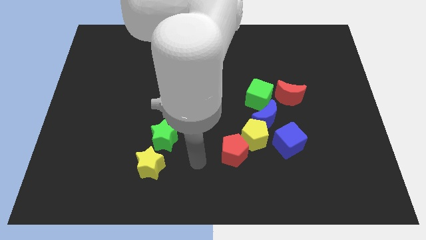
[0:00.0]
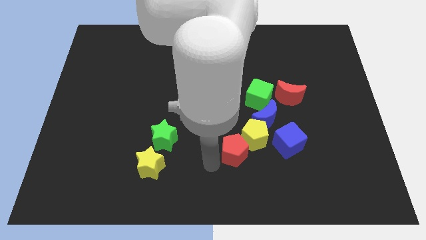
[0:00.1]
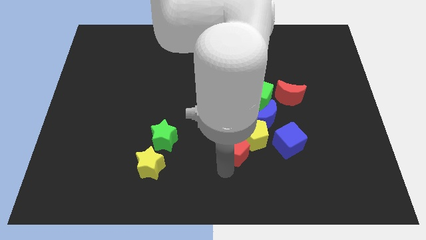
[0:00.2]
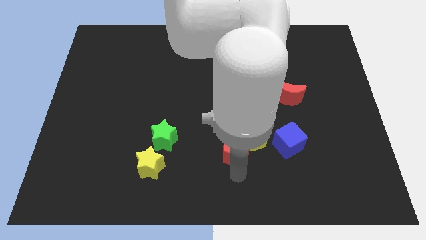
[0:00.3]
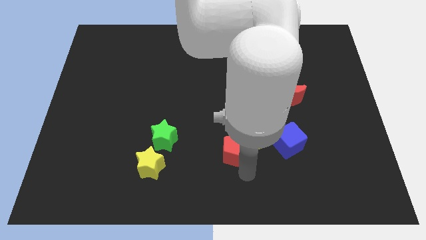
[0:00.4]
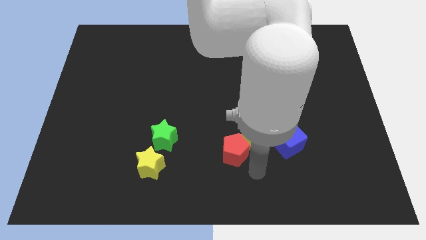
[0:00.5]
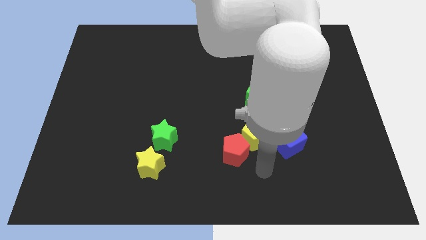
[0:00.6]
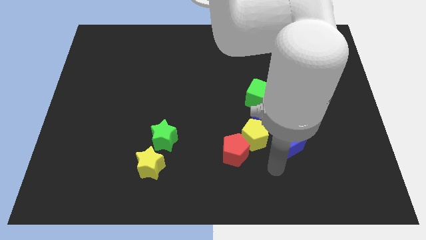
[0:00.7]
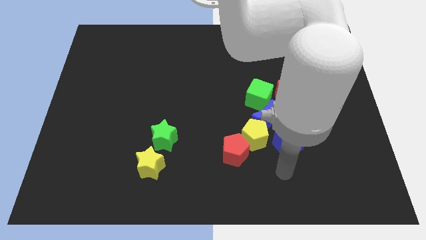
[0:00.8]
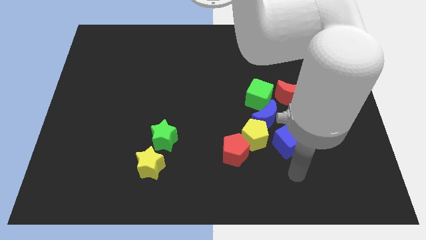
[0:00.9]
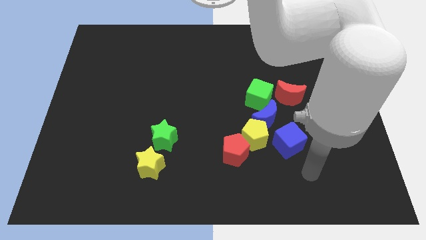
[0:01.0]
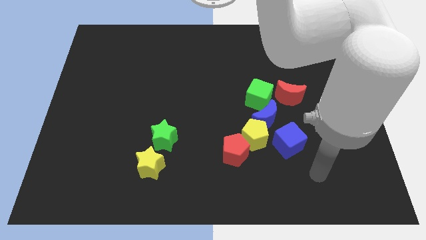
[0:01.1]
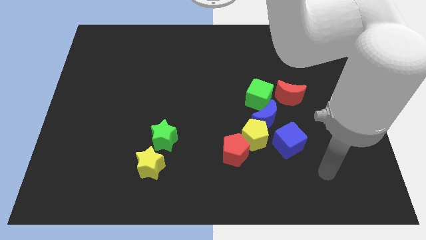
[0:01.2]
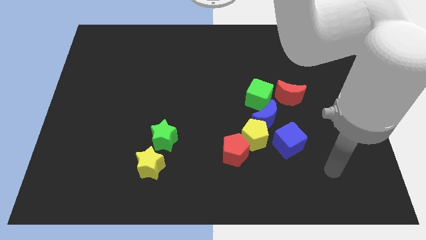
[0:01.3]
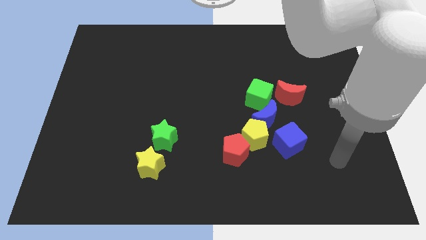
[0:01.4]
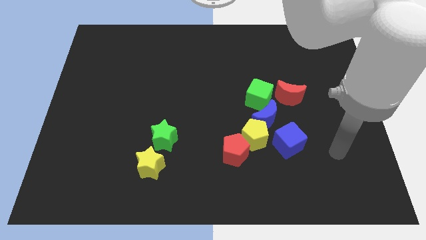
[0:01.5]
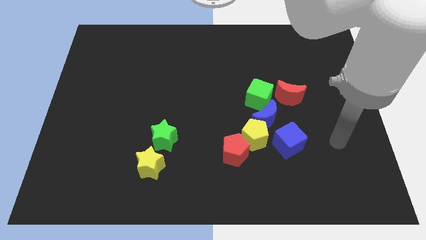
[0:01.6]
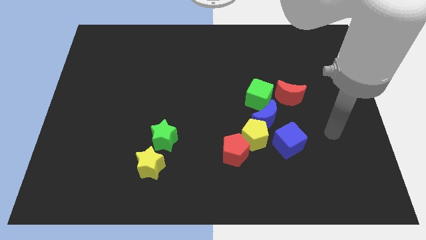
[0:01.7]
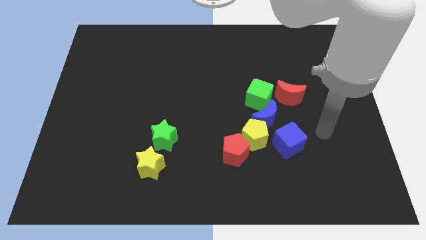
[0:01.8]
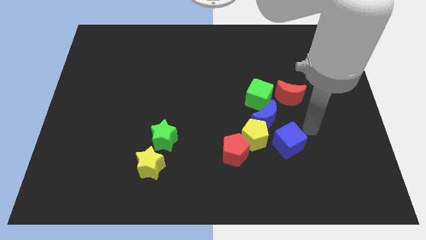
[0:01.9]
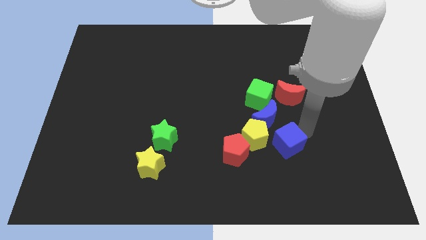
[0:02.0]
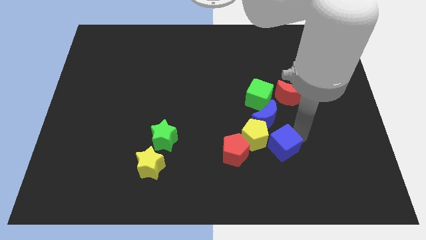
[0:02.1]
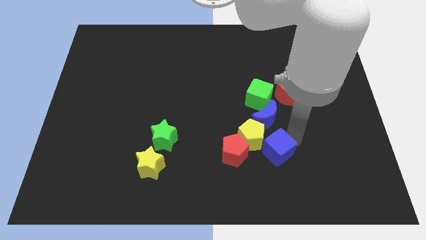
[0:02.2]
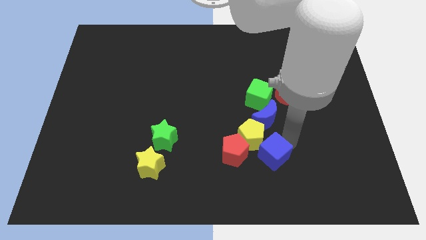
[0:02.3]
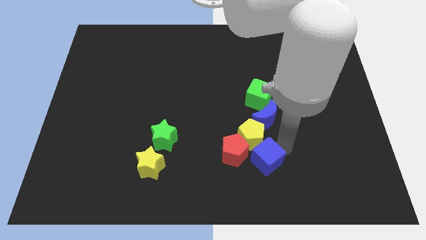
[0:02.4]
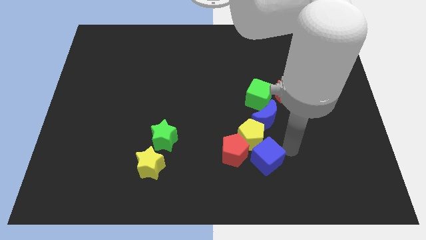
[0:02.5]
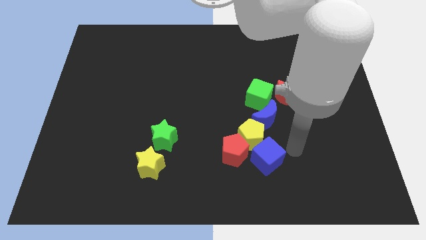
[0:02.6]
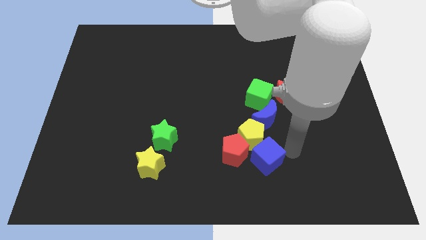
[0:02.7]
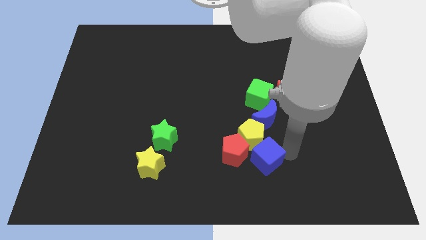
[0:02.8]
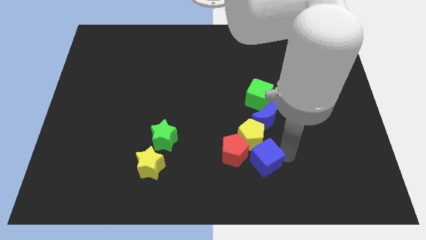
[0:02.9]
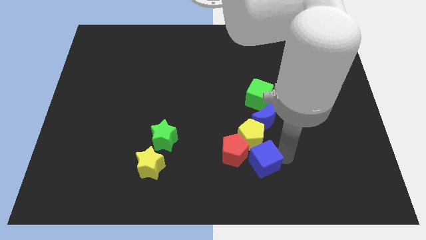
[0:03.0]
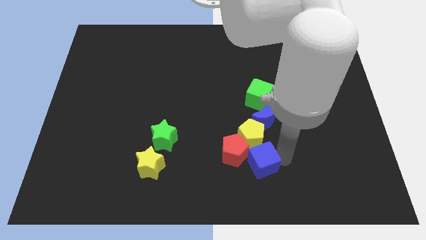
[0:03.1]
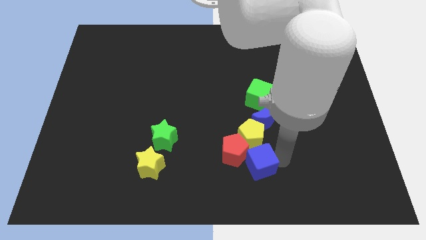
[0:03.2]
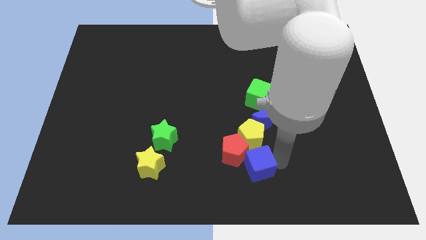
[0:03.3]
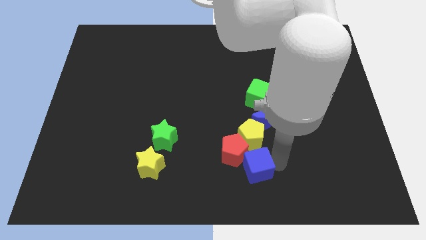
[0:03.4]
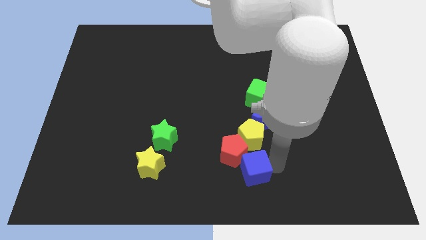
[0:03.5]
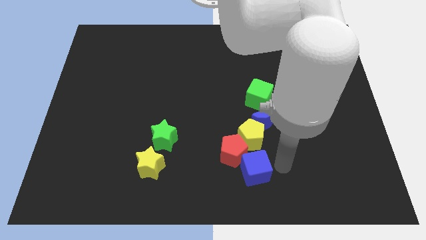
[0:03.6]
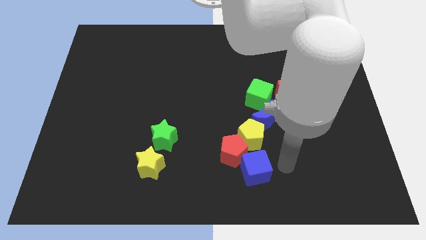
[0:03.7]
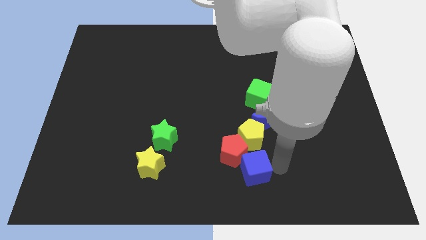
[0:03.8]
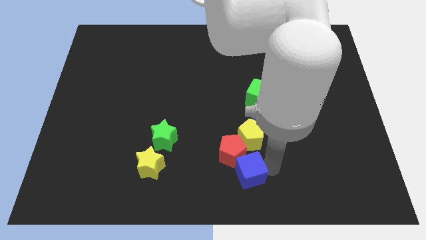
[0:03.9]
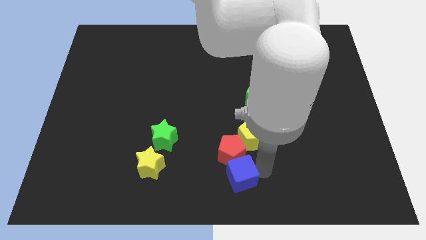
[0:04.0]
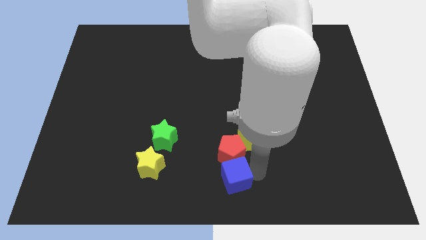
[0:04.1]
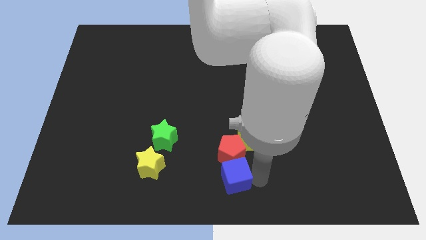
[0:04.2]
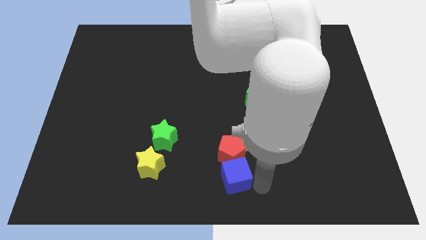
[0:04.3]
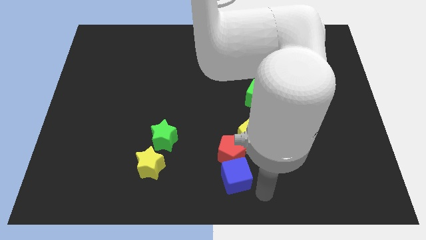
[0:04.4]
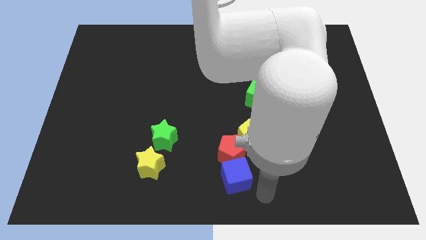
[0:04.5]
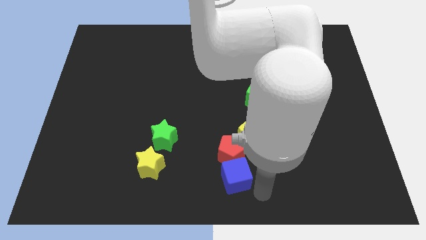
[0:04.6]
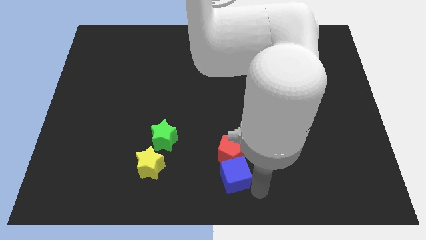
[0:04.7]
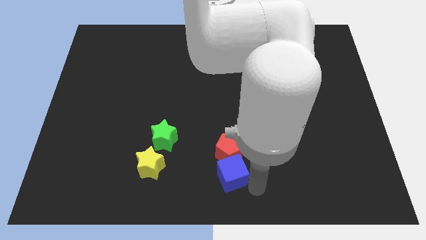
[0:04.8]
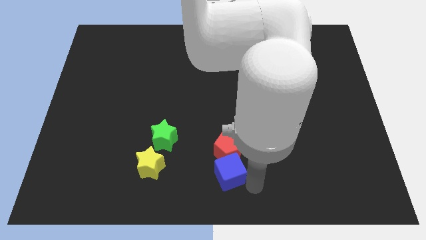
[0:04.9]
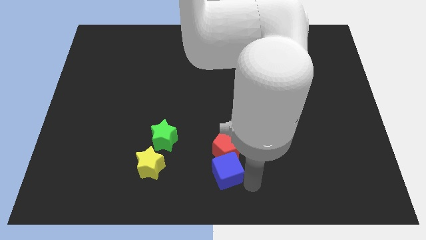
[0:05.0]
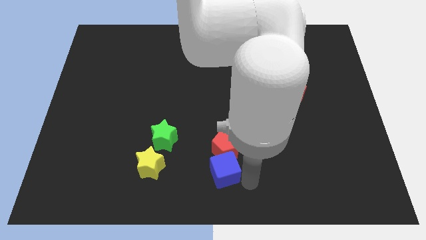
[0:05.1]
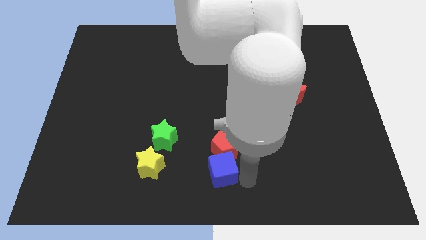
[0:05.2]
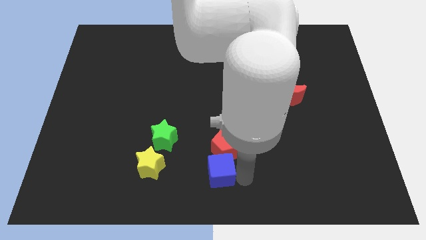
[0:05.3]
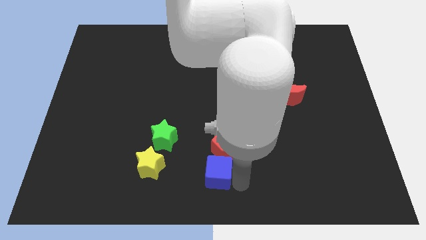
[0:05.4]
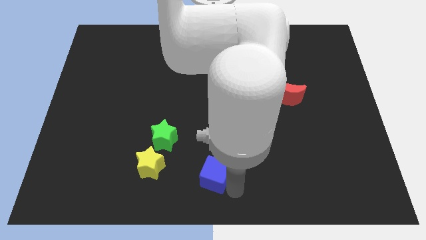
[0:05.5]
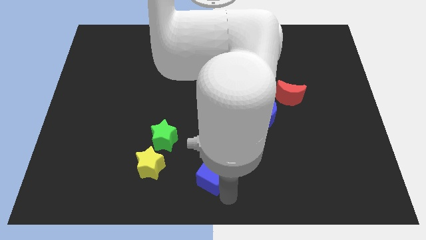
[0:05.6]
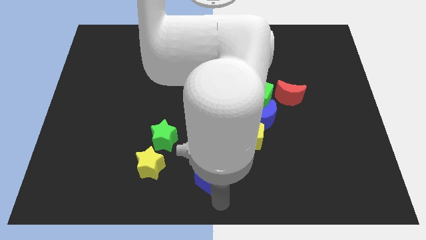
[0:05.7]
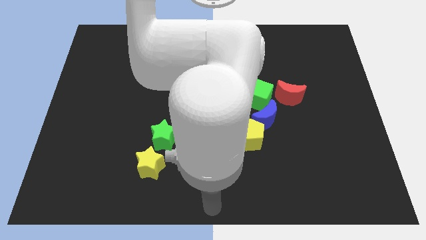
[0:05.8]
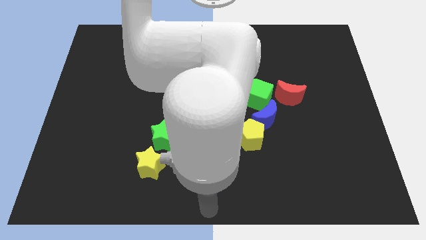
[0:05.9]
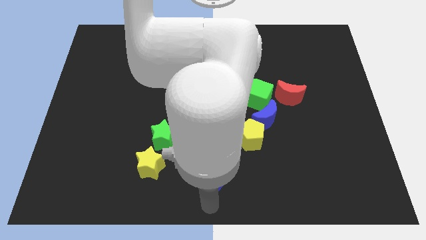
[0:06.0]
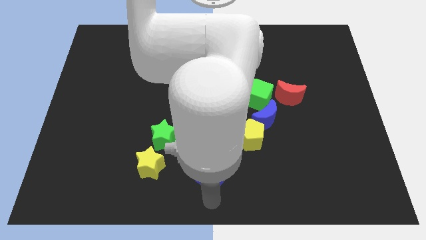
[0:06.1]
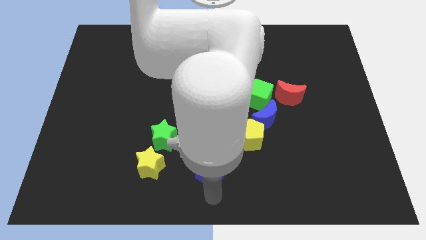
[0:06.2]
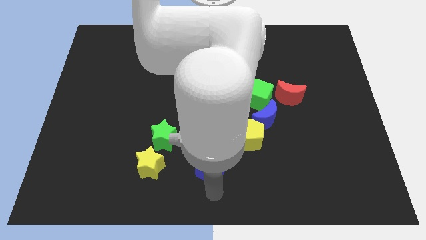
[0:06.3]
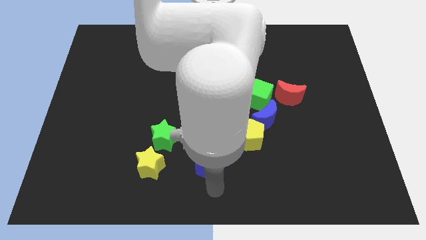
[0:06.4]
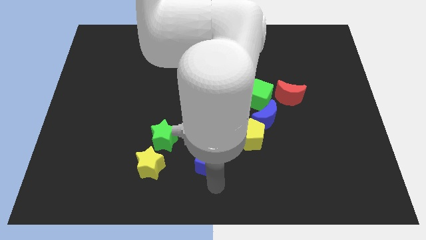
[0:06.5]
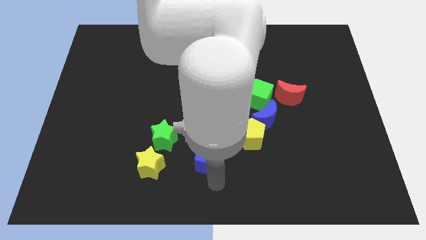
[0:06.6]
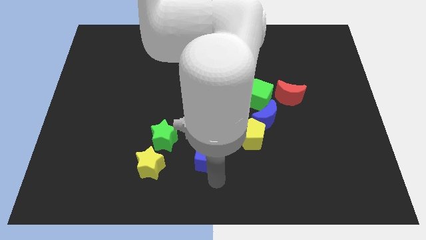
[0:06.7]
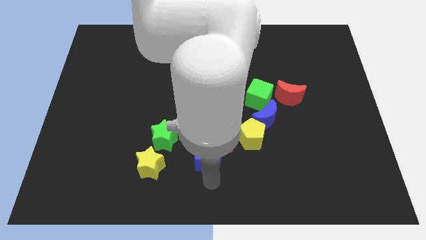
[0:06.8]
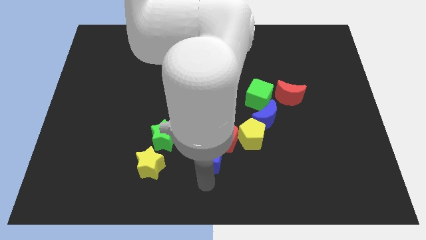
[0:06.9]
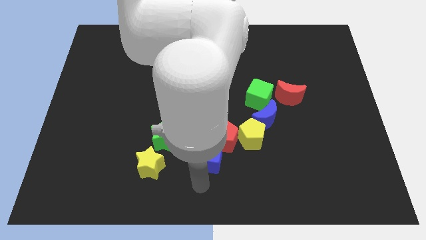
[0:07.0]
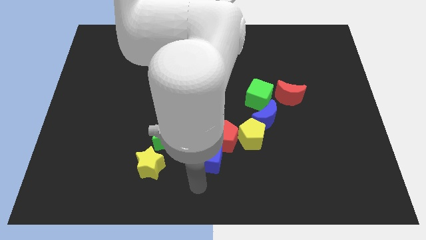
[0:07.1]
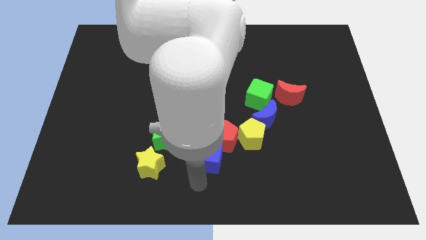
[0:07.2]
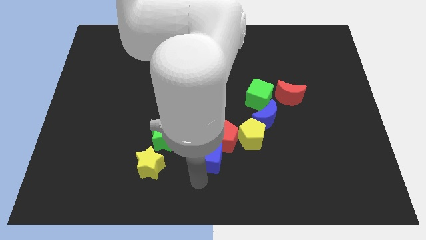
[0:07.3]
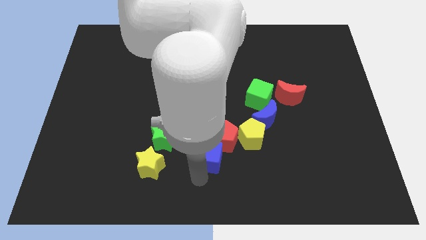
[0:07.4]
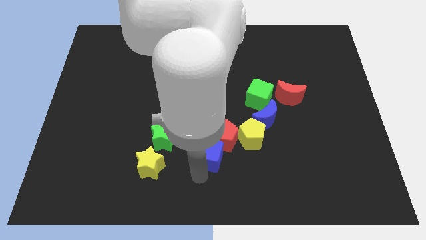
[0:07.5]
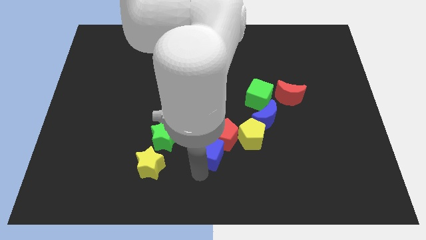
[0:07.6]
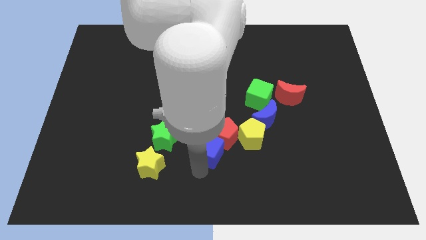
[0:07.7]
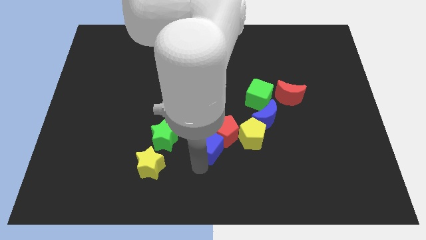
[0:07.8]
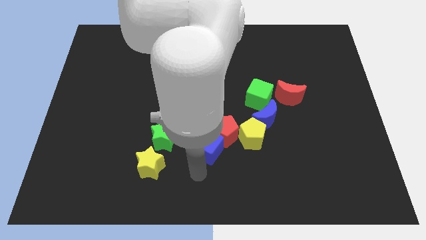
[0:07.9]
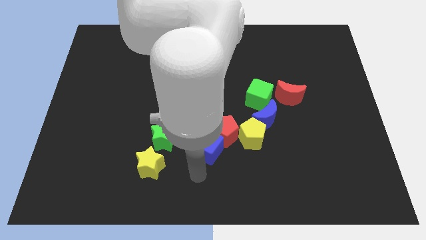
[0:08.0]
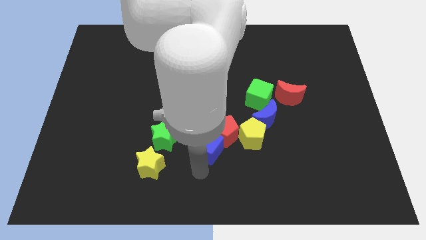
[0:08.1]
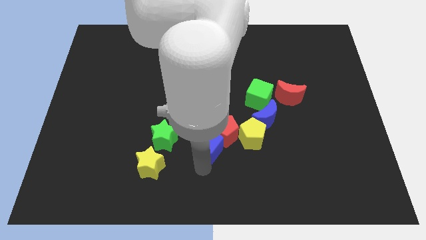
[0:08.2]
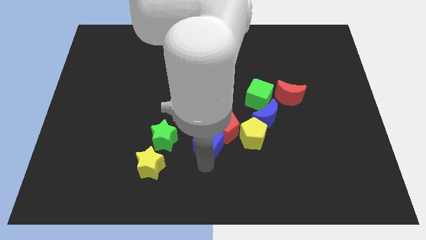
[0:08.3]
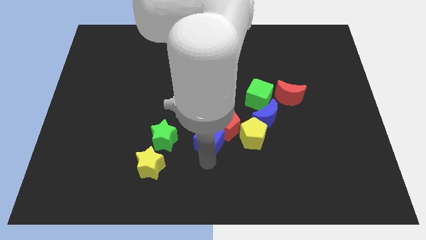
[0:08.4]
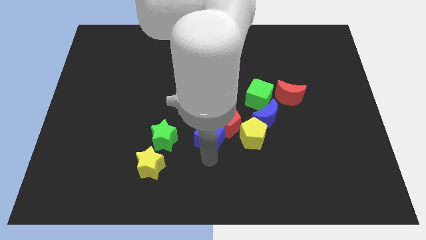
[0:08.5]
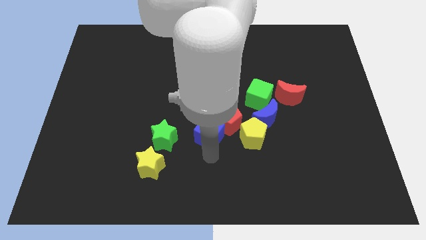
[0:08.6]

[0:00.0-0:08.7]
put the blue cube to the left side of the blue moon
